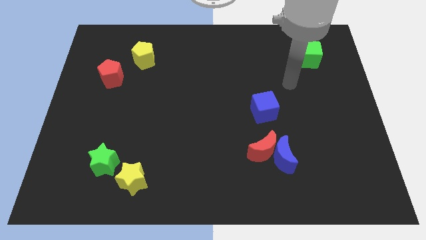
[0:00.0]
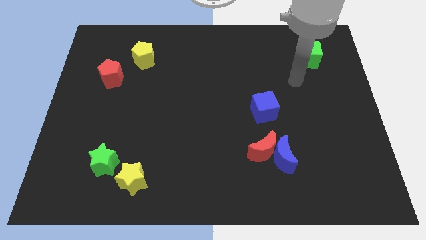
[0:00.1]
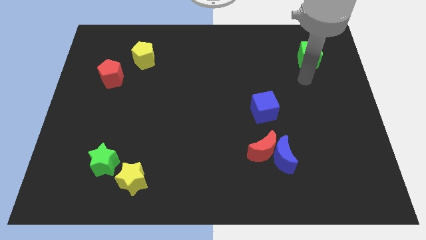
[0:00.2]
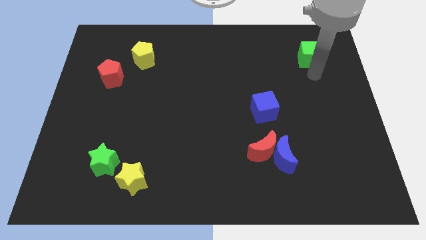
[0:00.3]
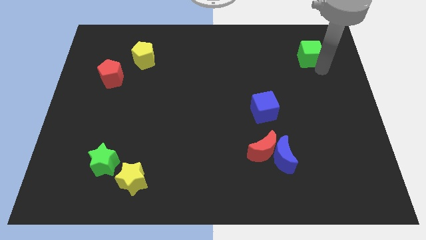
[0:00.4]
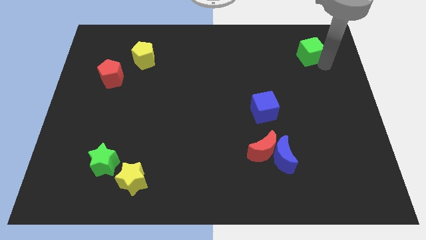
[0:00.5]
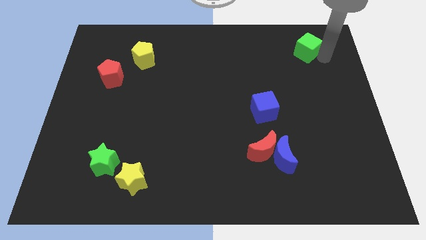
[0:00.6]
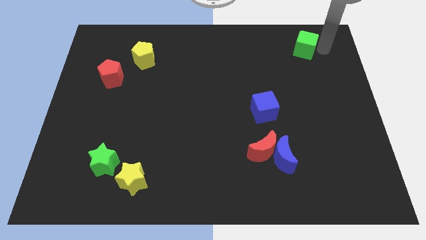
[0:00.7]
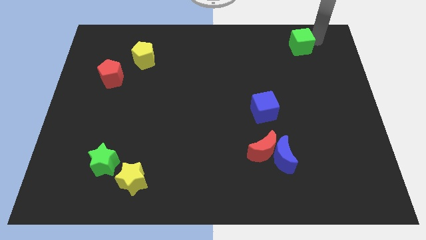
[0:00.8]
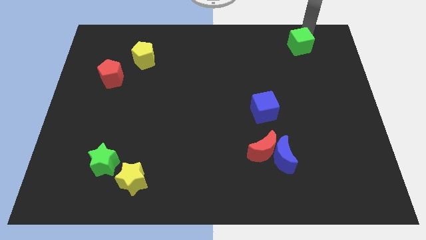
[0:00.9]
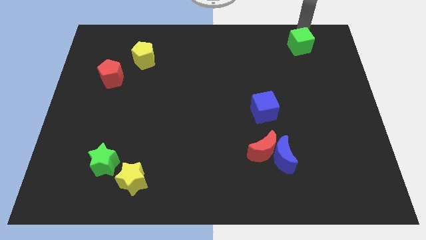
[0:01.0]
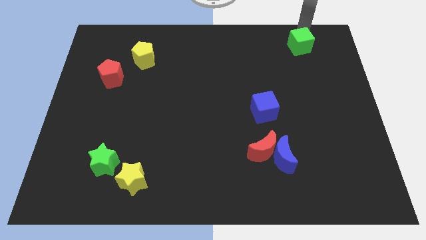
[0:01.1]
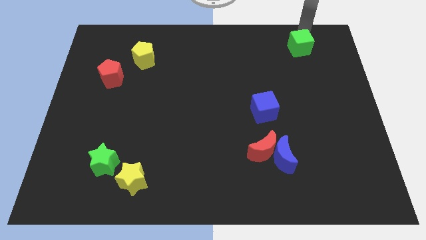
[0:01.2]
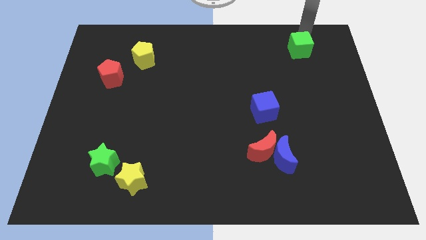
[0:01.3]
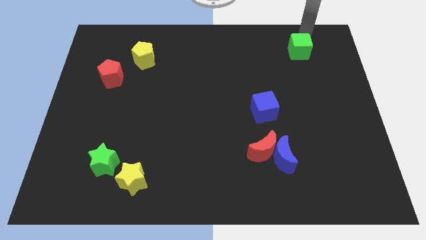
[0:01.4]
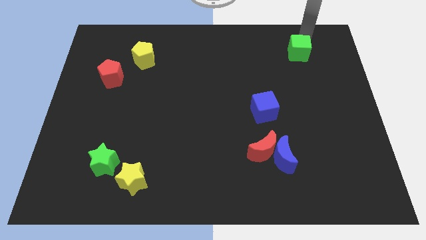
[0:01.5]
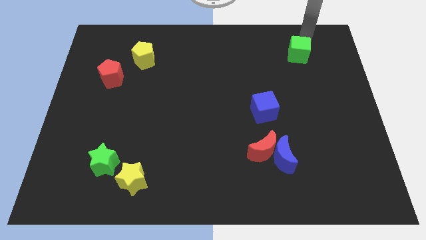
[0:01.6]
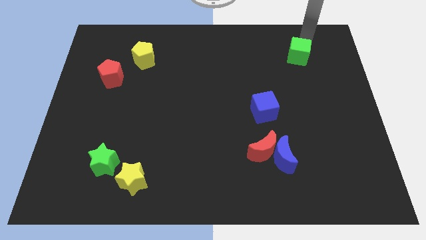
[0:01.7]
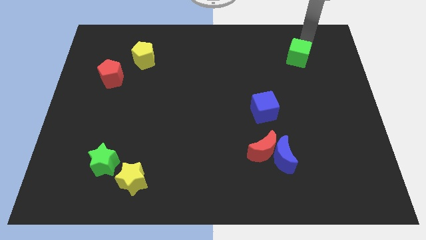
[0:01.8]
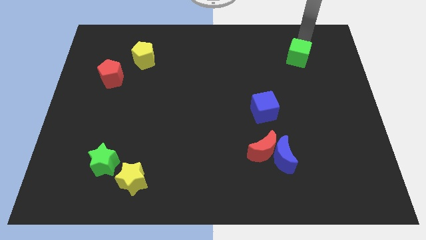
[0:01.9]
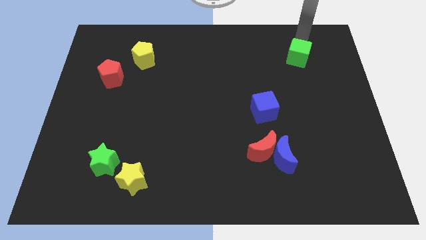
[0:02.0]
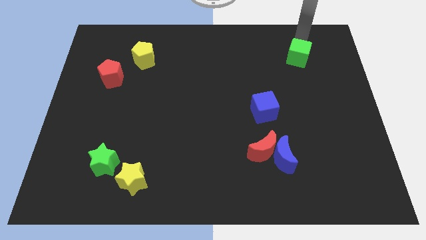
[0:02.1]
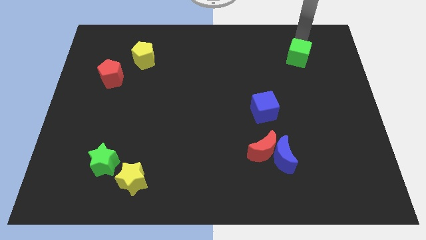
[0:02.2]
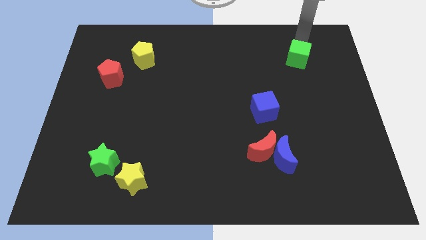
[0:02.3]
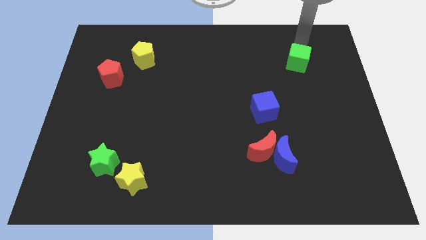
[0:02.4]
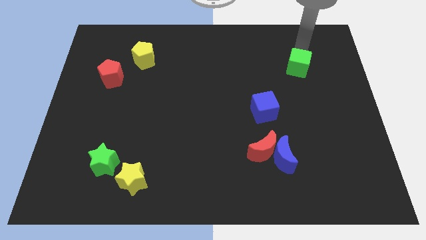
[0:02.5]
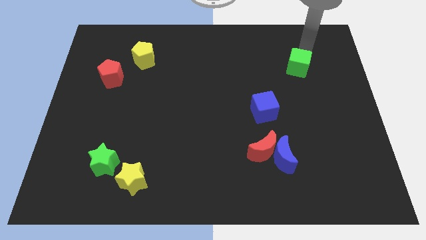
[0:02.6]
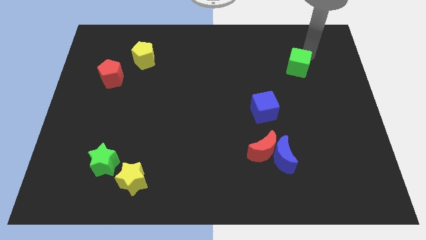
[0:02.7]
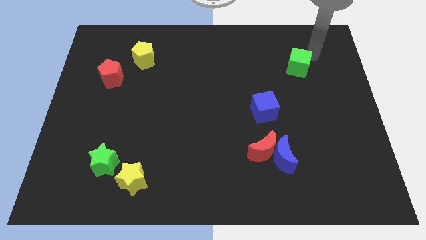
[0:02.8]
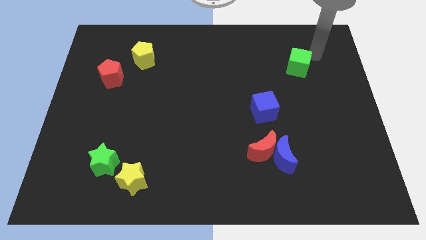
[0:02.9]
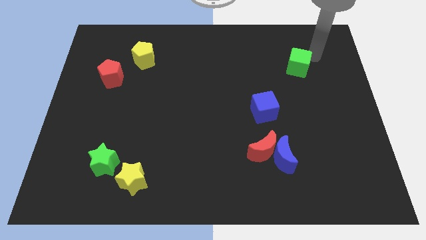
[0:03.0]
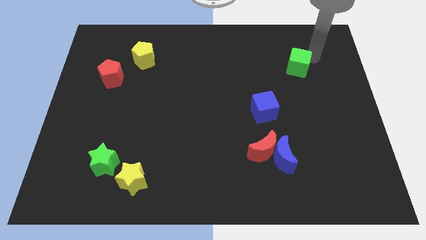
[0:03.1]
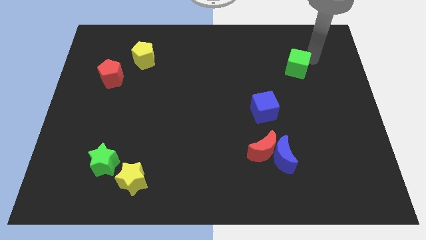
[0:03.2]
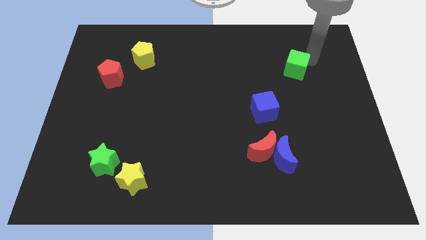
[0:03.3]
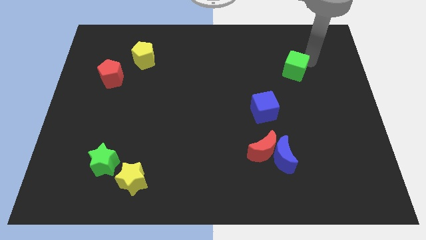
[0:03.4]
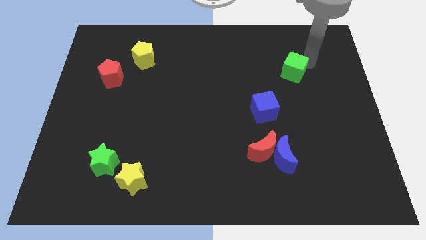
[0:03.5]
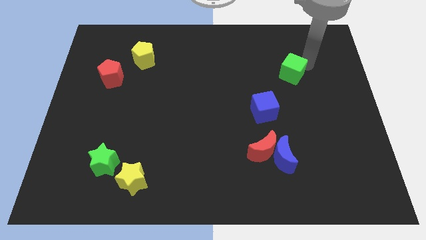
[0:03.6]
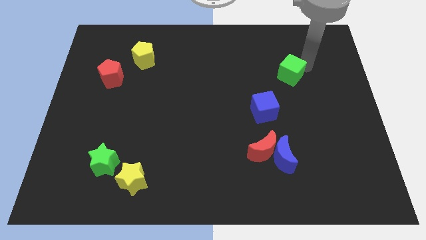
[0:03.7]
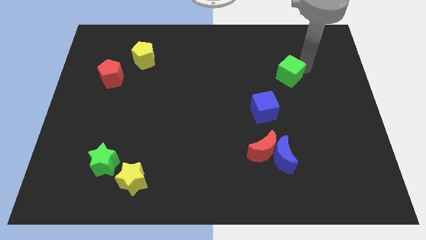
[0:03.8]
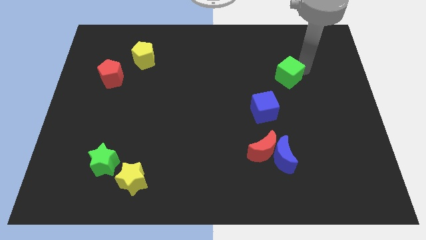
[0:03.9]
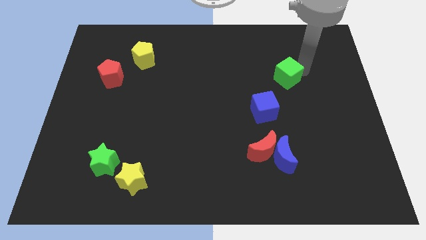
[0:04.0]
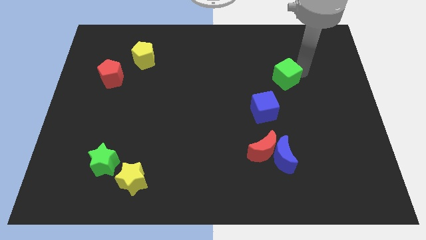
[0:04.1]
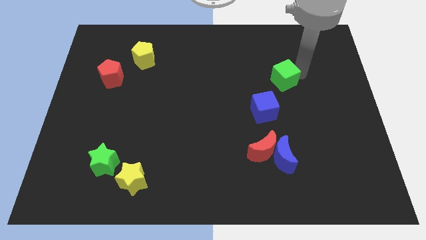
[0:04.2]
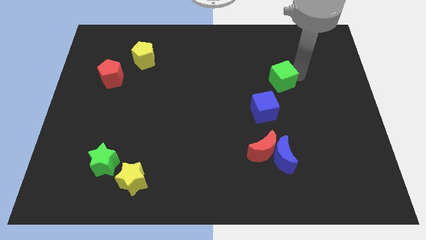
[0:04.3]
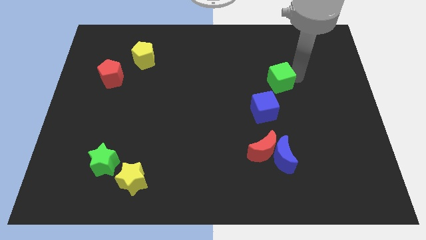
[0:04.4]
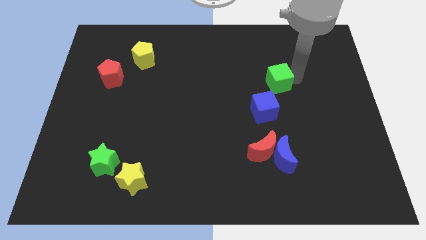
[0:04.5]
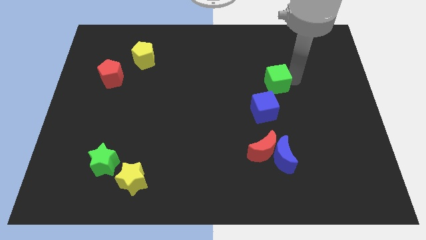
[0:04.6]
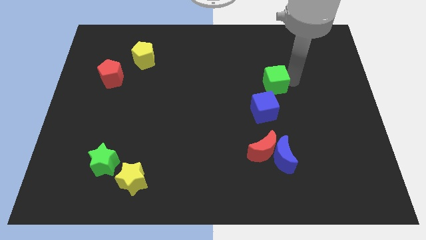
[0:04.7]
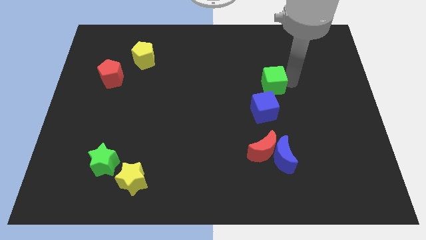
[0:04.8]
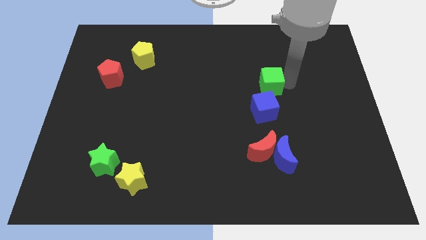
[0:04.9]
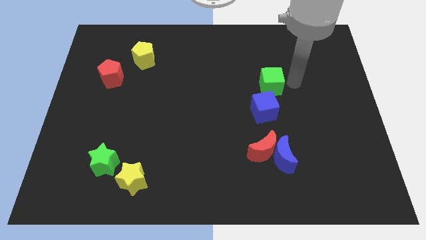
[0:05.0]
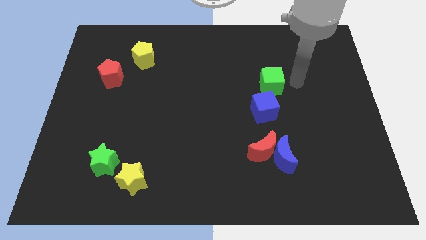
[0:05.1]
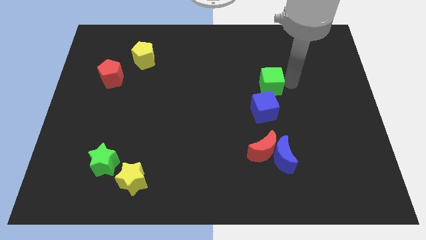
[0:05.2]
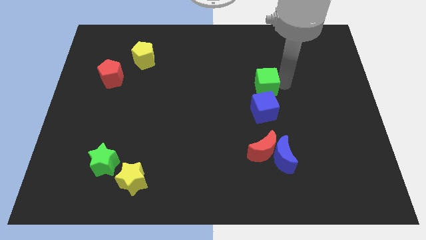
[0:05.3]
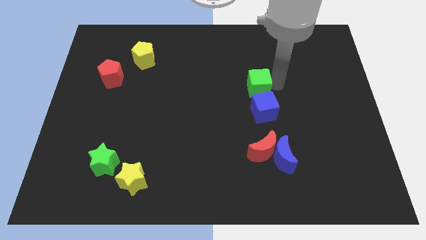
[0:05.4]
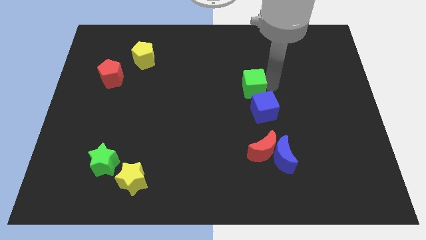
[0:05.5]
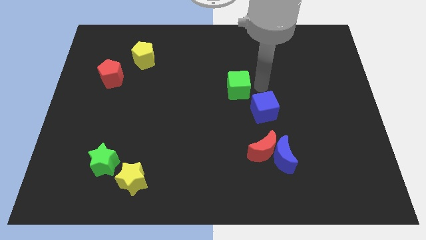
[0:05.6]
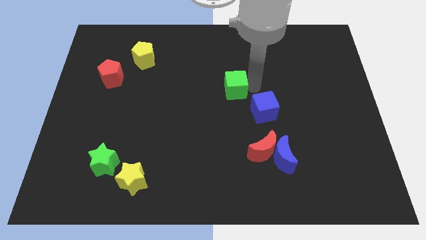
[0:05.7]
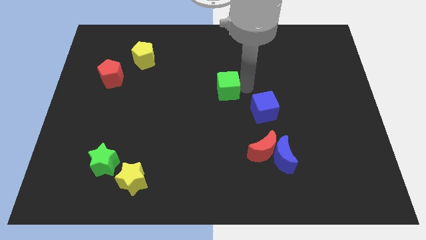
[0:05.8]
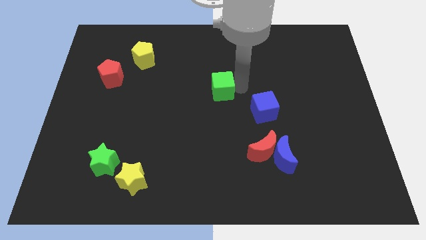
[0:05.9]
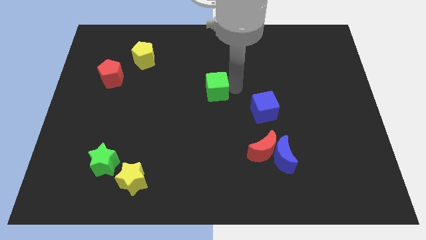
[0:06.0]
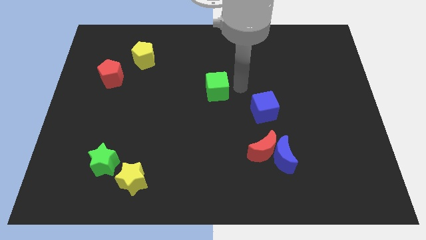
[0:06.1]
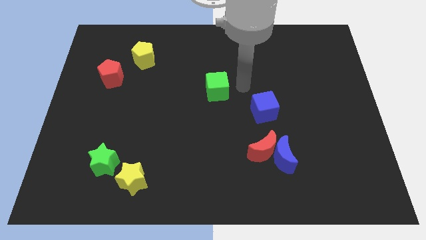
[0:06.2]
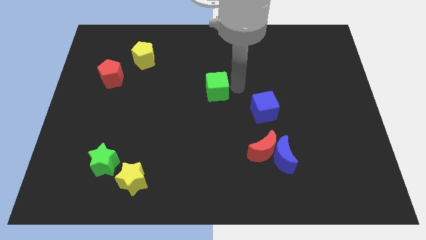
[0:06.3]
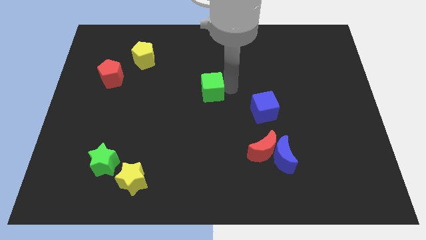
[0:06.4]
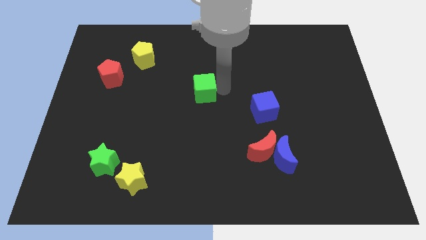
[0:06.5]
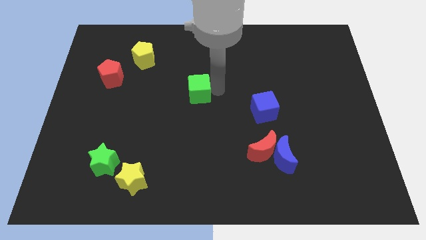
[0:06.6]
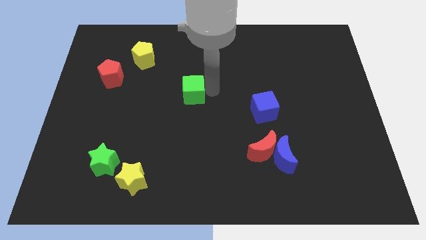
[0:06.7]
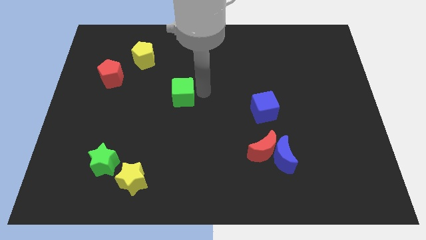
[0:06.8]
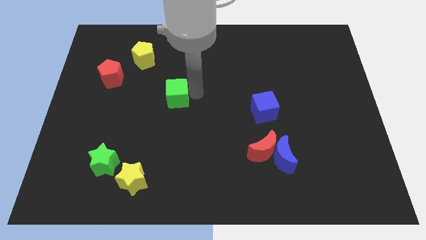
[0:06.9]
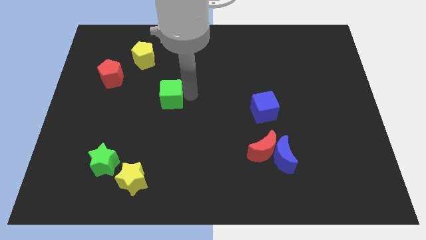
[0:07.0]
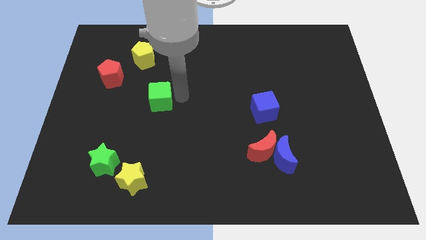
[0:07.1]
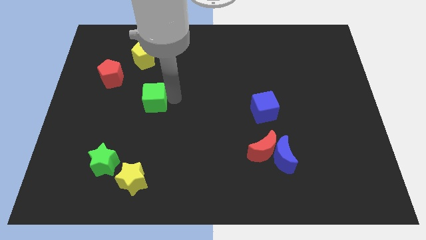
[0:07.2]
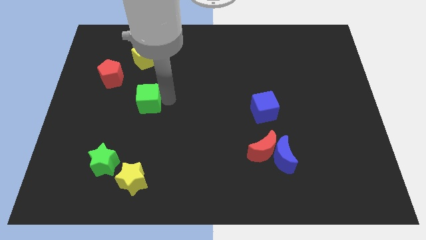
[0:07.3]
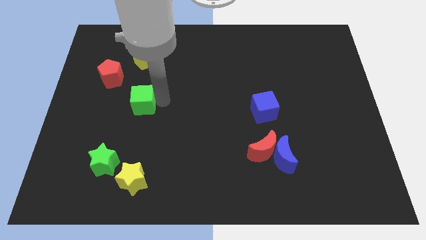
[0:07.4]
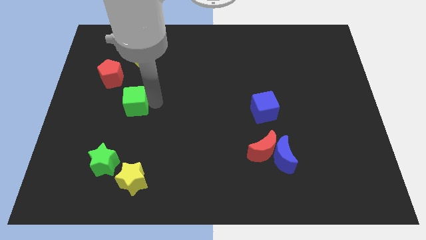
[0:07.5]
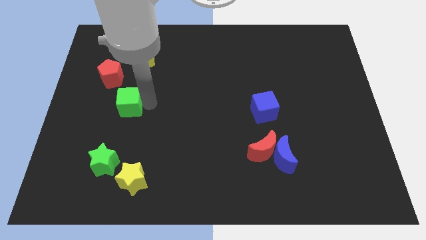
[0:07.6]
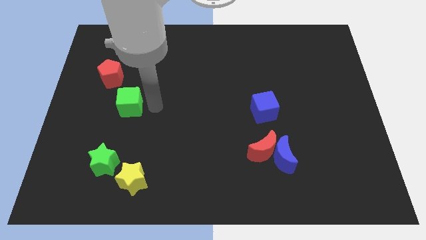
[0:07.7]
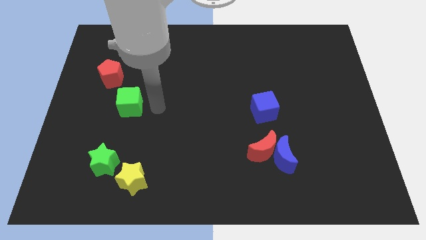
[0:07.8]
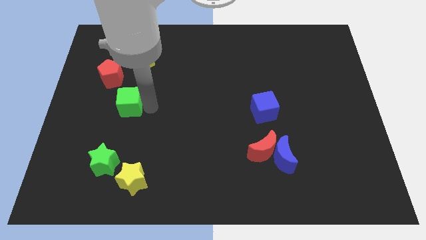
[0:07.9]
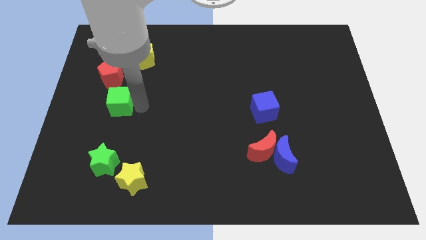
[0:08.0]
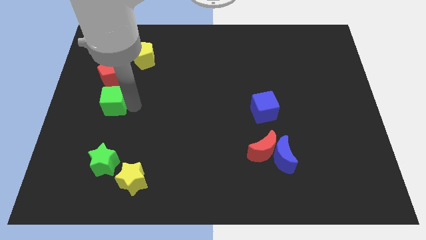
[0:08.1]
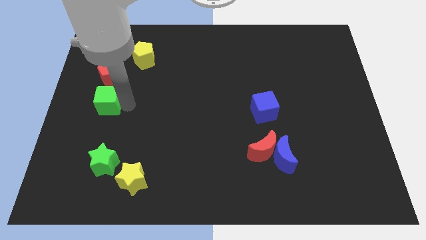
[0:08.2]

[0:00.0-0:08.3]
slide the green cube to the center left
